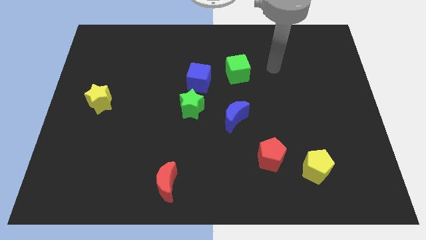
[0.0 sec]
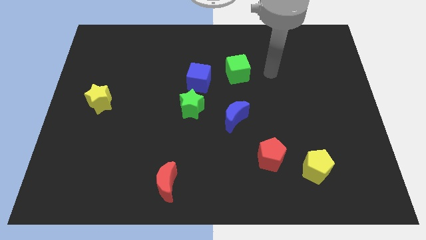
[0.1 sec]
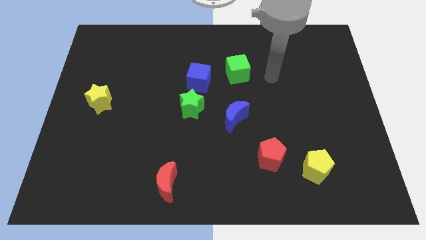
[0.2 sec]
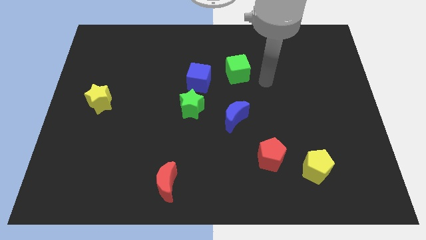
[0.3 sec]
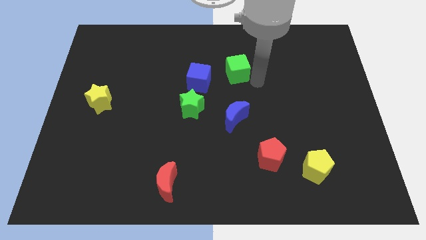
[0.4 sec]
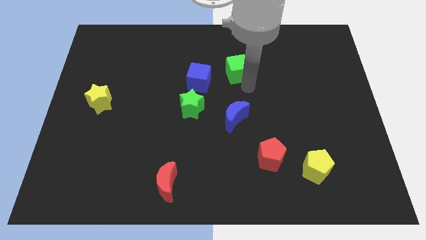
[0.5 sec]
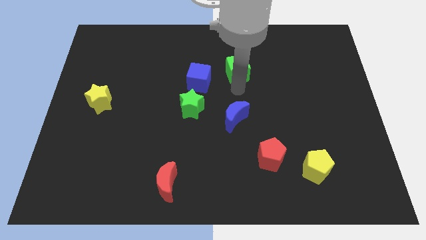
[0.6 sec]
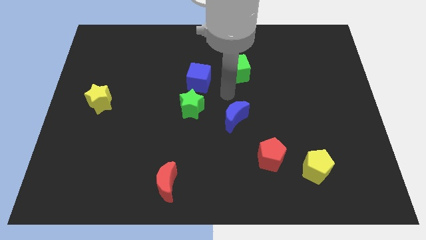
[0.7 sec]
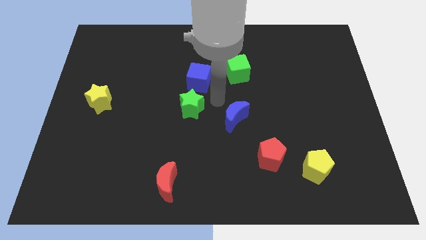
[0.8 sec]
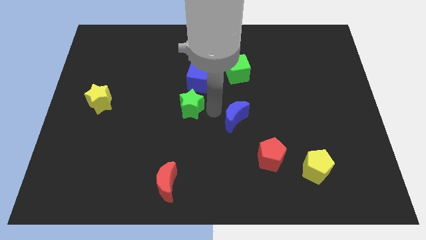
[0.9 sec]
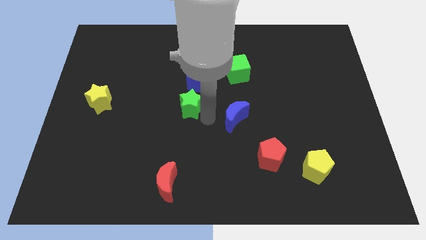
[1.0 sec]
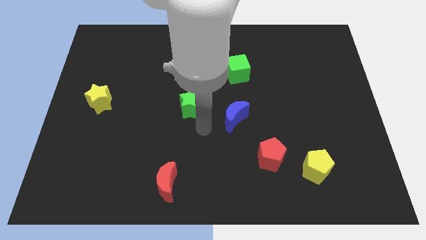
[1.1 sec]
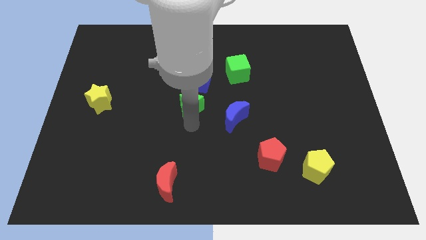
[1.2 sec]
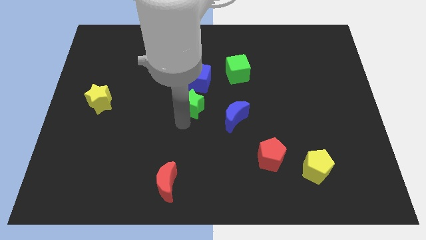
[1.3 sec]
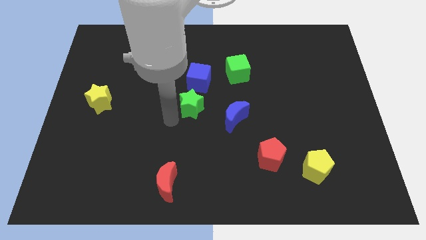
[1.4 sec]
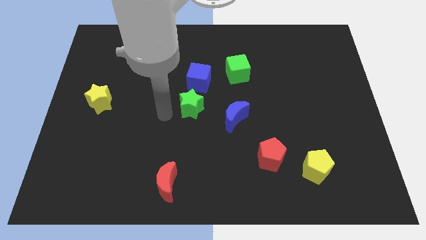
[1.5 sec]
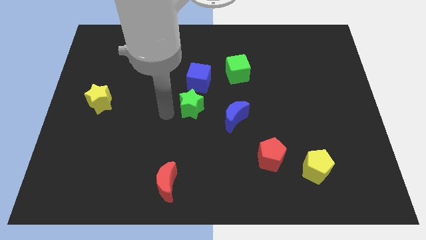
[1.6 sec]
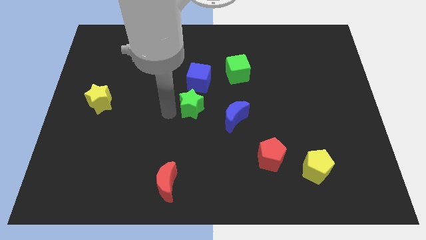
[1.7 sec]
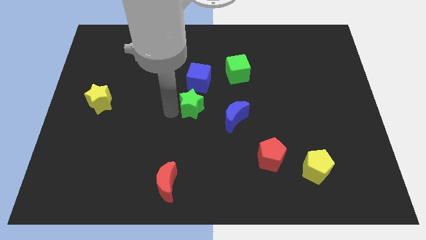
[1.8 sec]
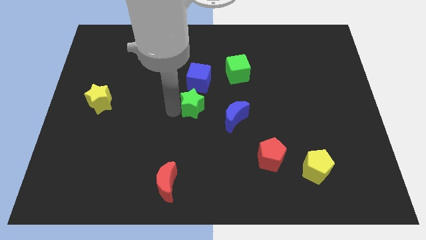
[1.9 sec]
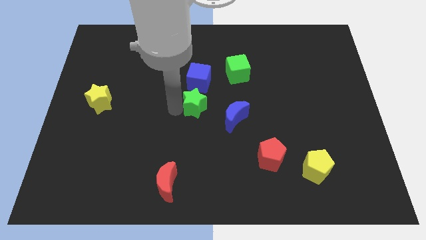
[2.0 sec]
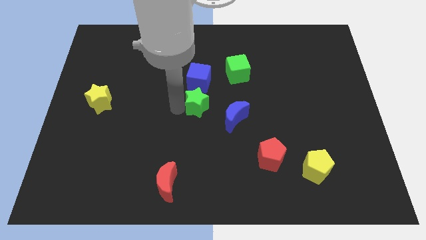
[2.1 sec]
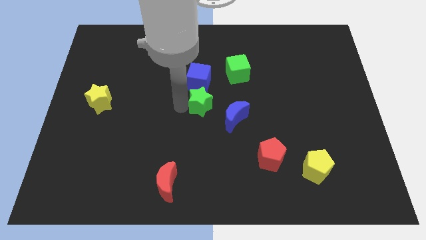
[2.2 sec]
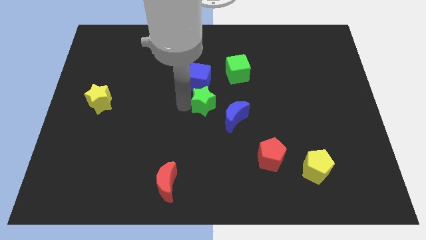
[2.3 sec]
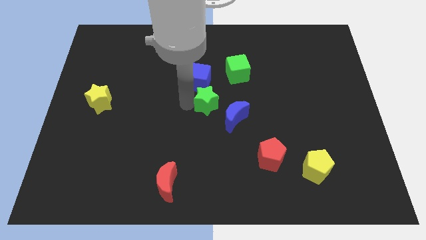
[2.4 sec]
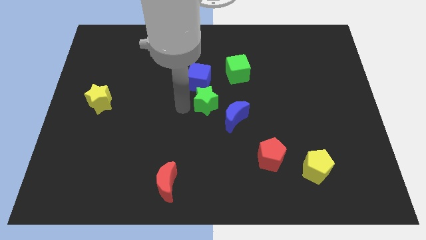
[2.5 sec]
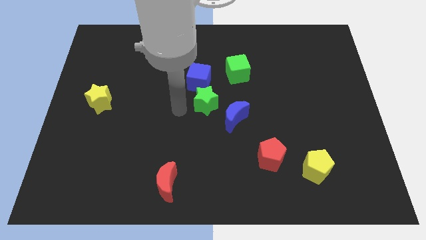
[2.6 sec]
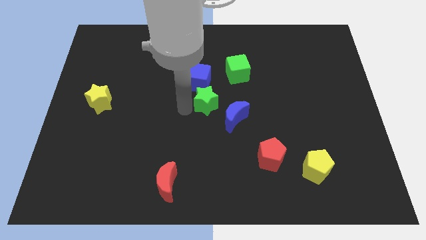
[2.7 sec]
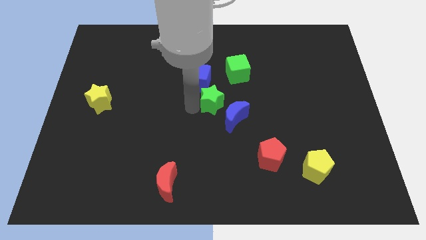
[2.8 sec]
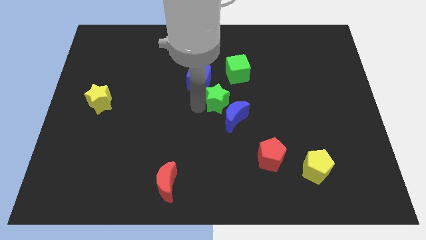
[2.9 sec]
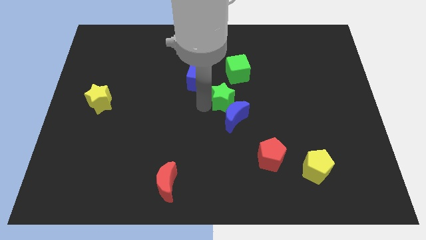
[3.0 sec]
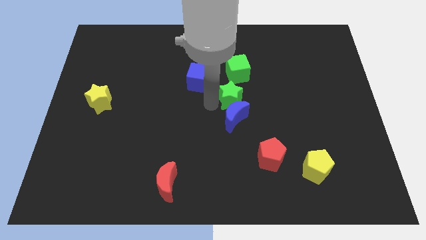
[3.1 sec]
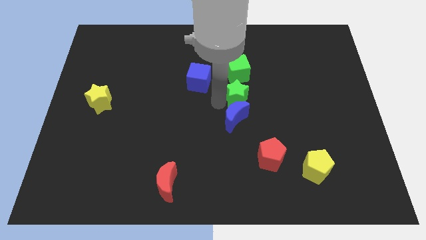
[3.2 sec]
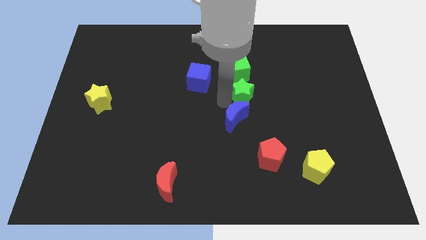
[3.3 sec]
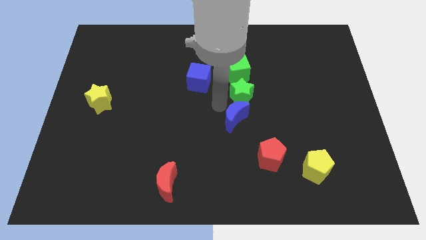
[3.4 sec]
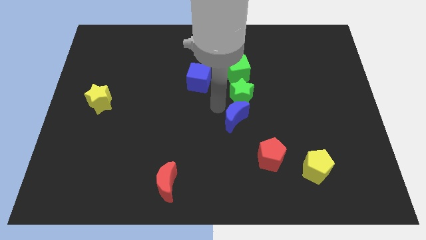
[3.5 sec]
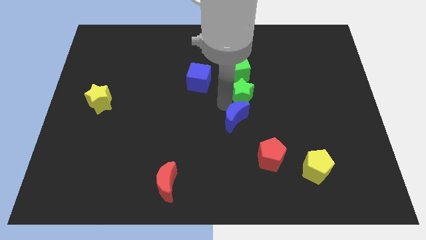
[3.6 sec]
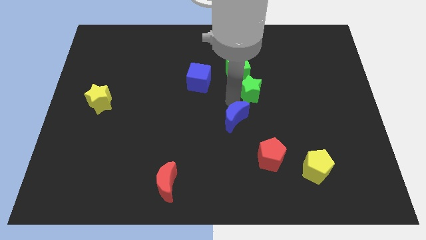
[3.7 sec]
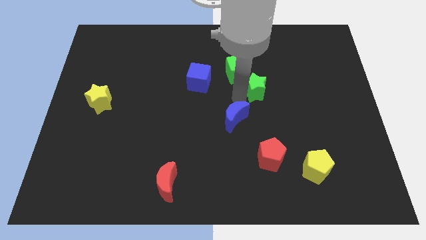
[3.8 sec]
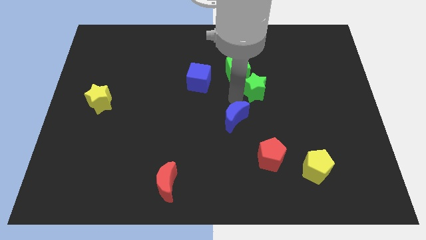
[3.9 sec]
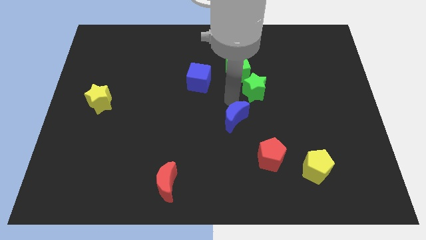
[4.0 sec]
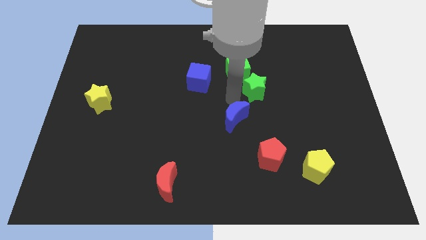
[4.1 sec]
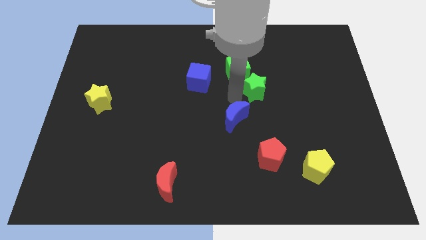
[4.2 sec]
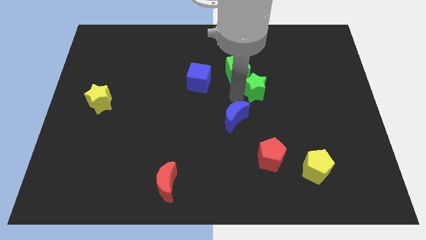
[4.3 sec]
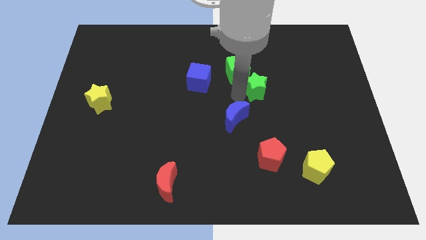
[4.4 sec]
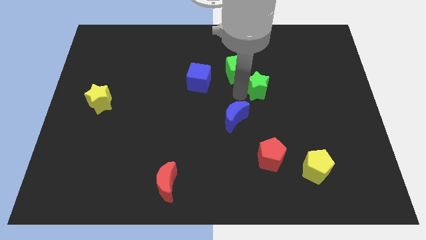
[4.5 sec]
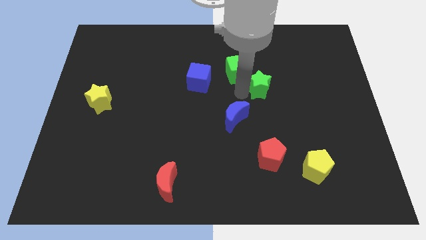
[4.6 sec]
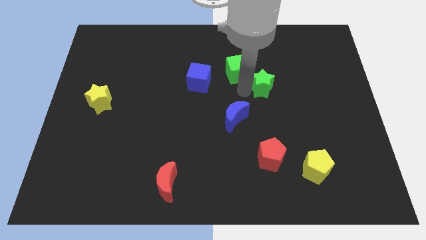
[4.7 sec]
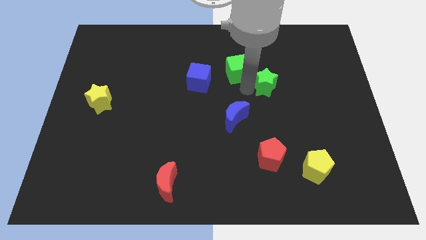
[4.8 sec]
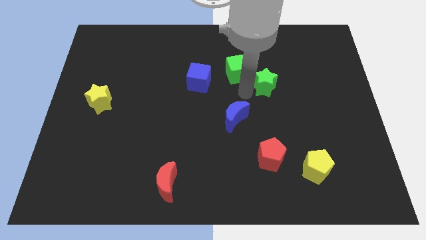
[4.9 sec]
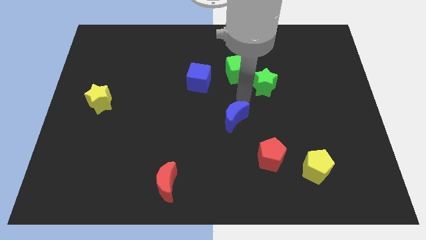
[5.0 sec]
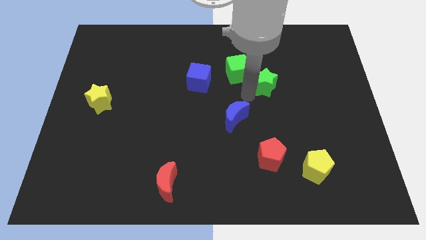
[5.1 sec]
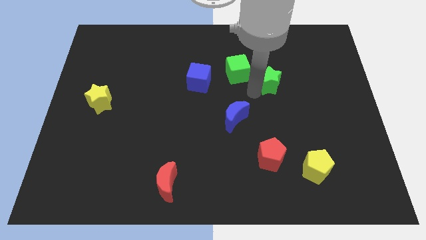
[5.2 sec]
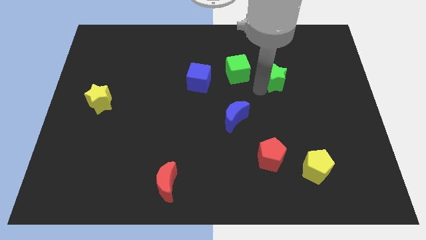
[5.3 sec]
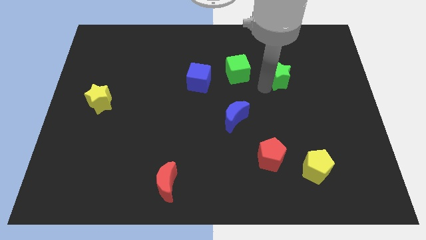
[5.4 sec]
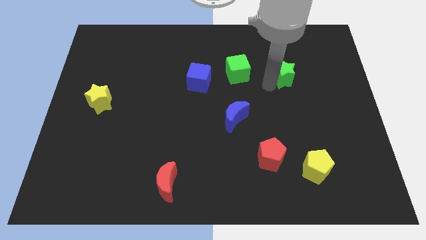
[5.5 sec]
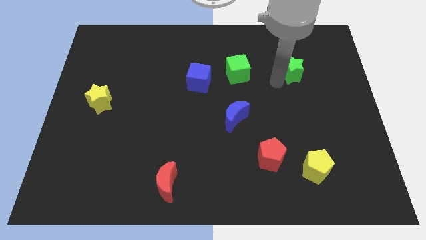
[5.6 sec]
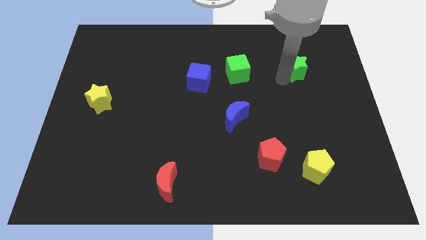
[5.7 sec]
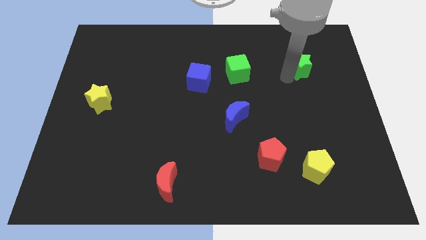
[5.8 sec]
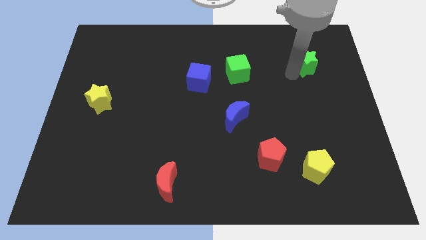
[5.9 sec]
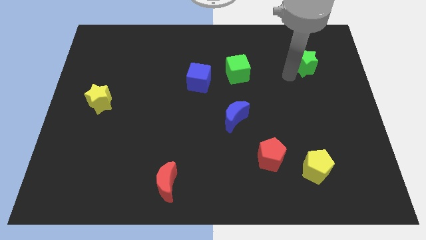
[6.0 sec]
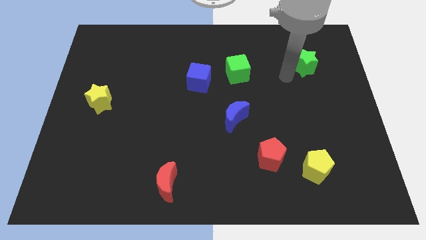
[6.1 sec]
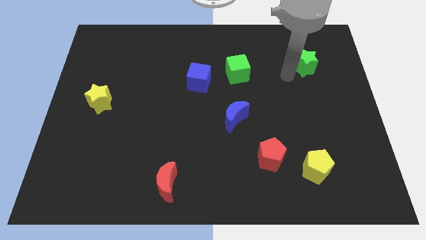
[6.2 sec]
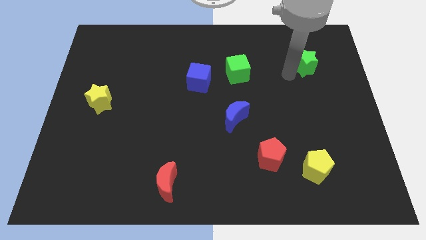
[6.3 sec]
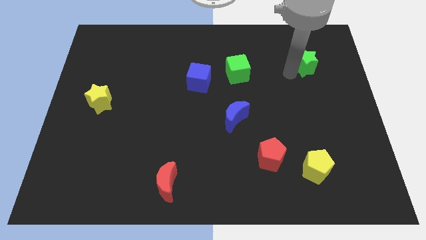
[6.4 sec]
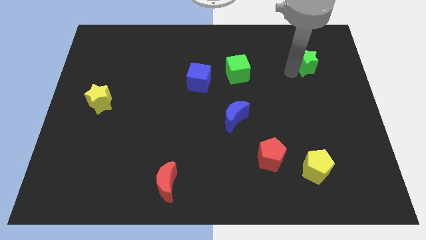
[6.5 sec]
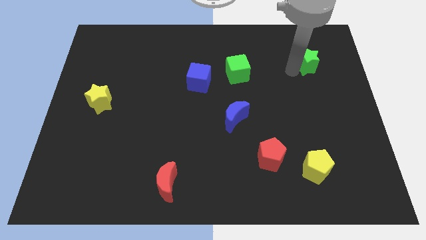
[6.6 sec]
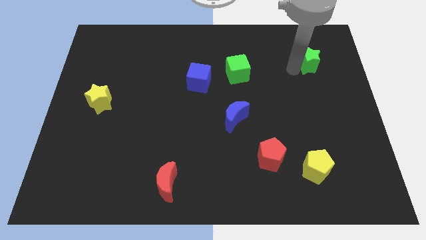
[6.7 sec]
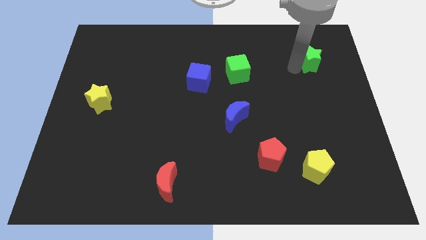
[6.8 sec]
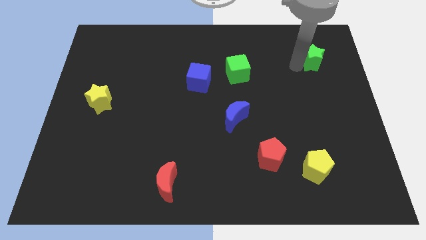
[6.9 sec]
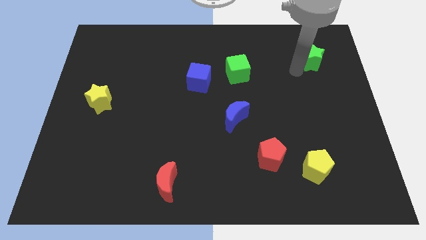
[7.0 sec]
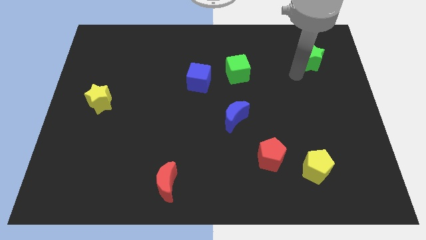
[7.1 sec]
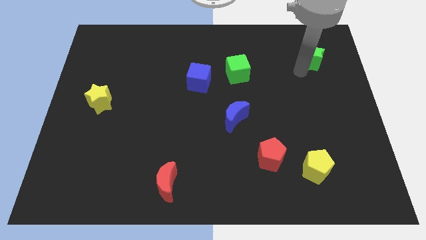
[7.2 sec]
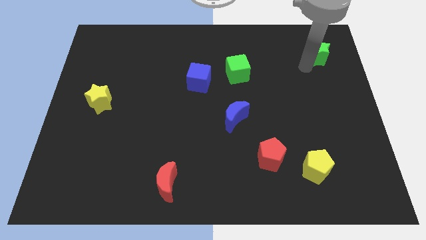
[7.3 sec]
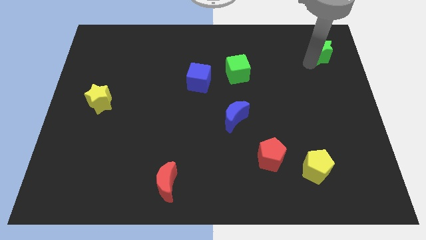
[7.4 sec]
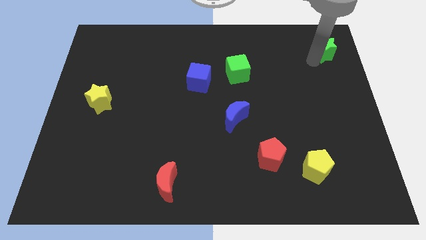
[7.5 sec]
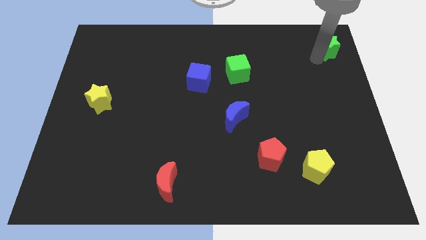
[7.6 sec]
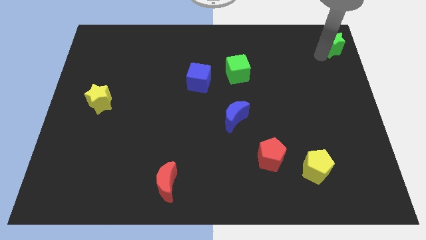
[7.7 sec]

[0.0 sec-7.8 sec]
move the green star to the top right
